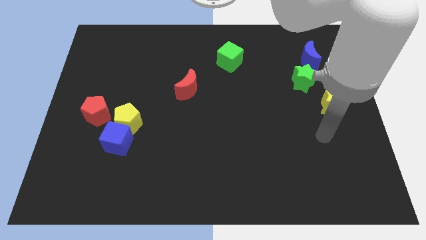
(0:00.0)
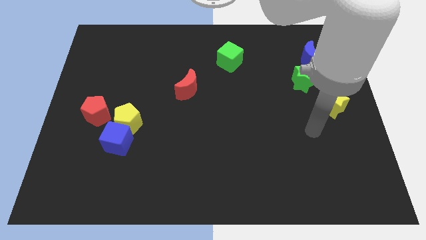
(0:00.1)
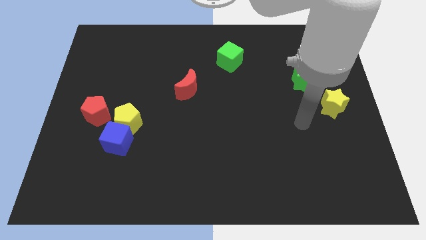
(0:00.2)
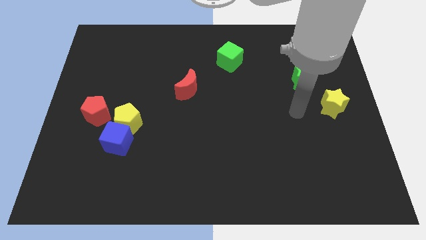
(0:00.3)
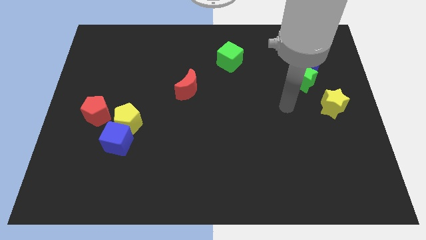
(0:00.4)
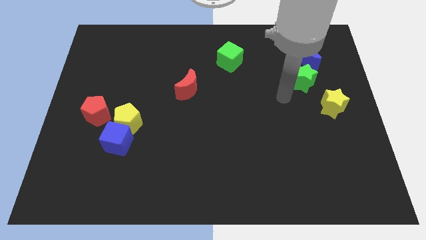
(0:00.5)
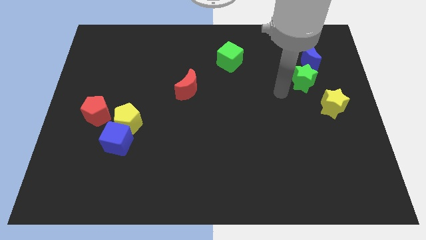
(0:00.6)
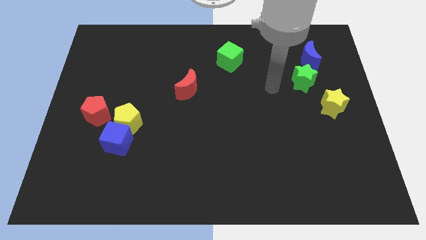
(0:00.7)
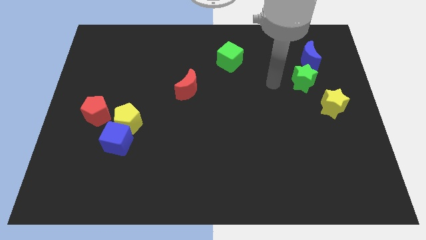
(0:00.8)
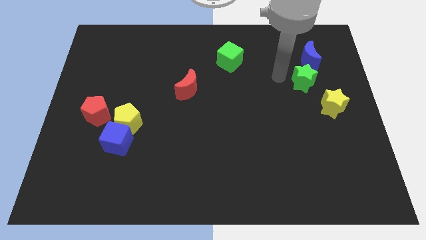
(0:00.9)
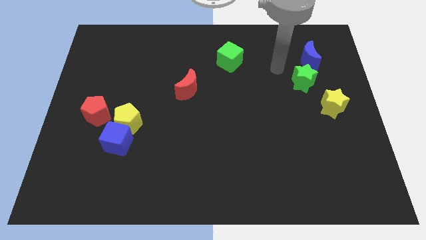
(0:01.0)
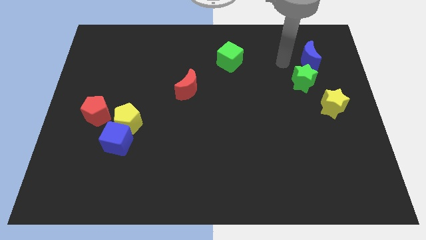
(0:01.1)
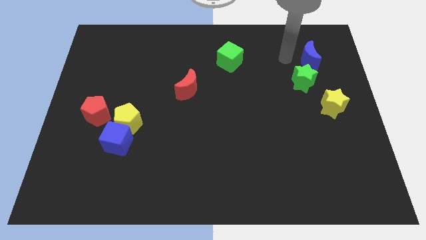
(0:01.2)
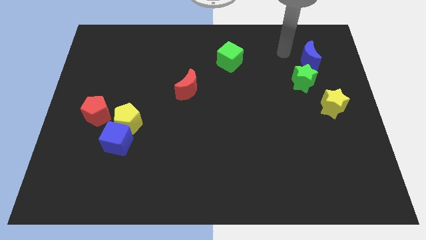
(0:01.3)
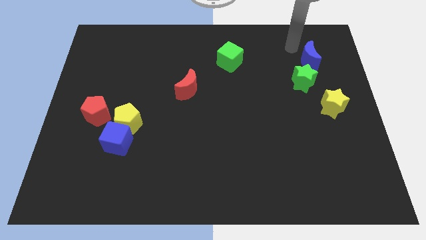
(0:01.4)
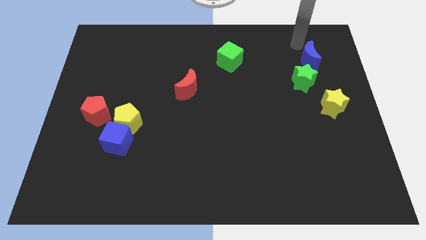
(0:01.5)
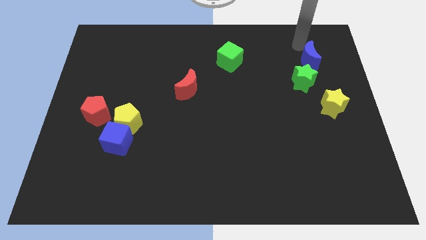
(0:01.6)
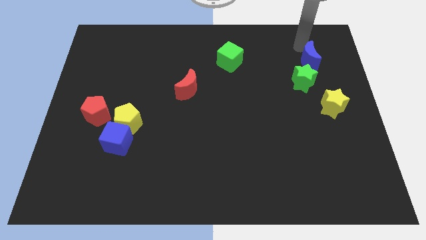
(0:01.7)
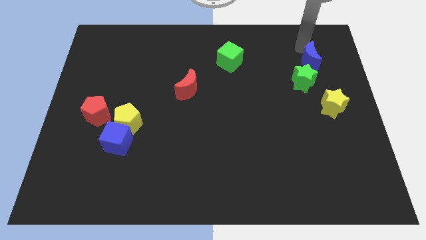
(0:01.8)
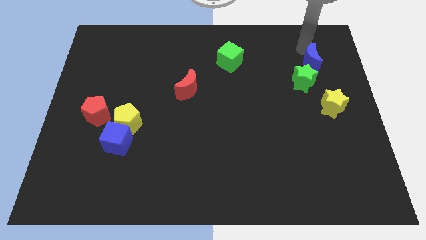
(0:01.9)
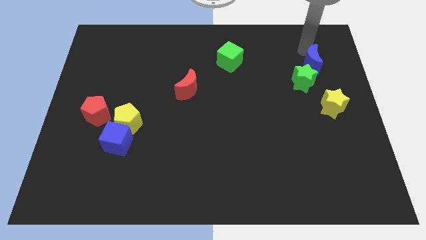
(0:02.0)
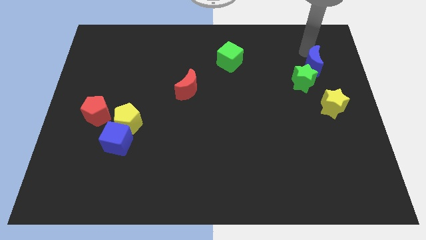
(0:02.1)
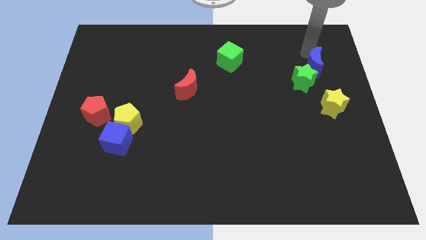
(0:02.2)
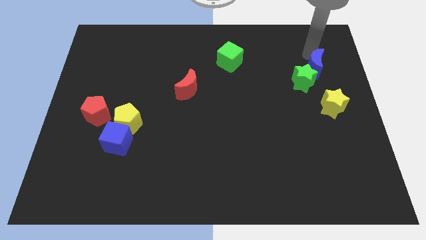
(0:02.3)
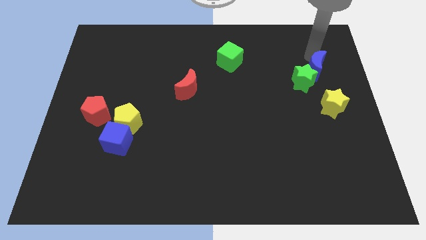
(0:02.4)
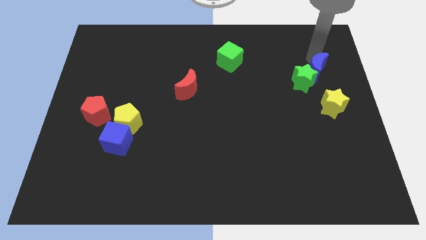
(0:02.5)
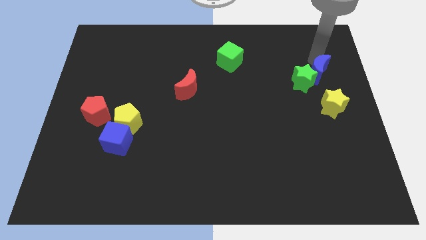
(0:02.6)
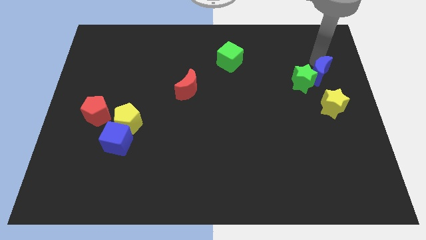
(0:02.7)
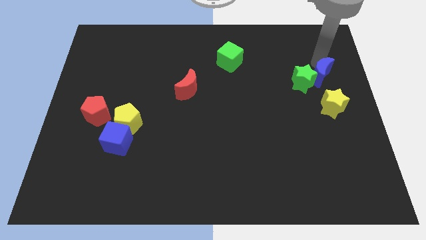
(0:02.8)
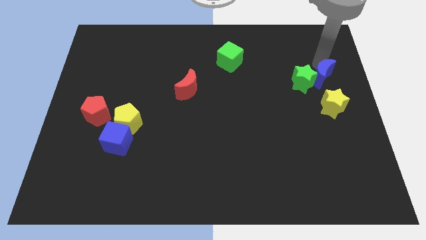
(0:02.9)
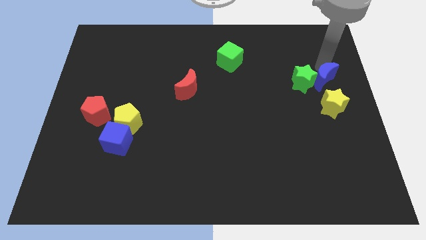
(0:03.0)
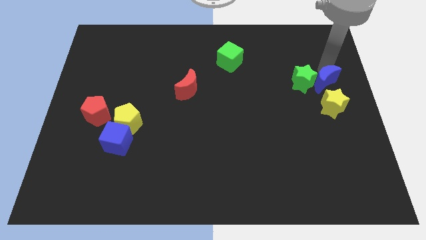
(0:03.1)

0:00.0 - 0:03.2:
move the blue moon downwards slightly

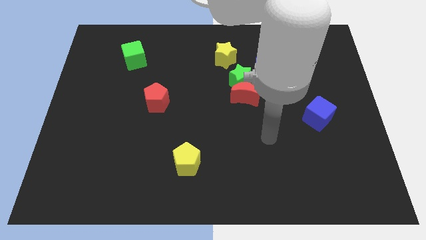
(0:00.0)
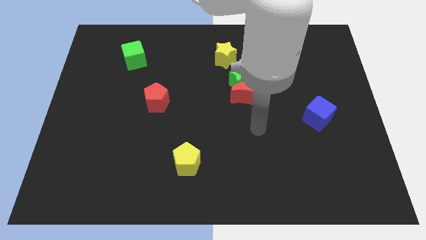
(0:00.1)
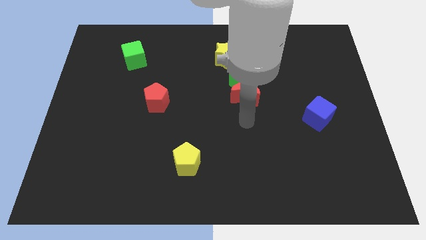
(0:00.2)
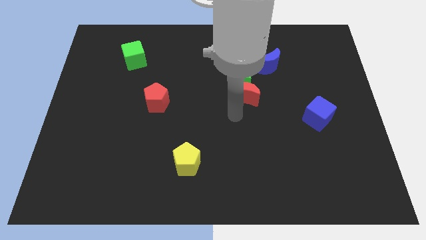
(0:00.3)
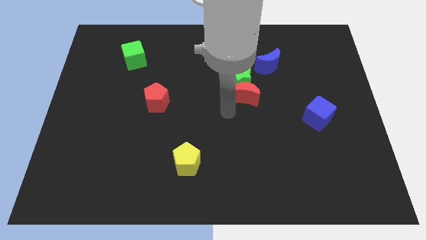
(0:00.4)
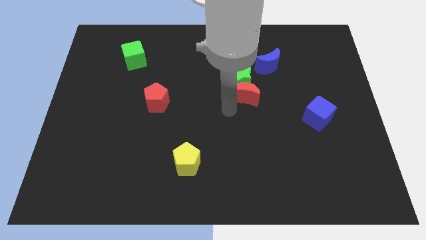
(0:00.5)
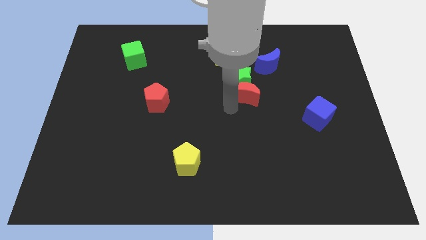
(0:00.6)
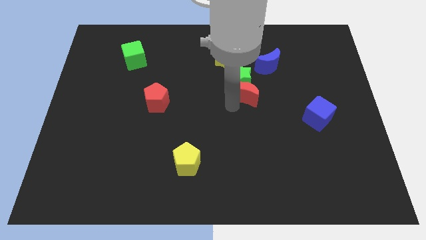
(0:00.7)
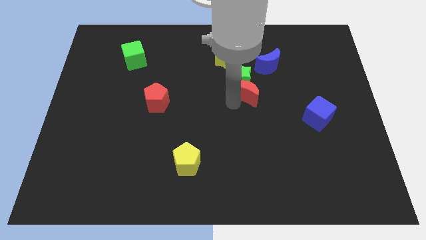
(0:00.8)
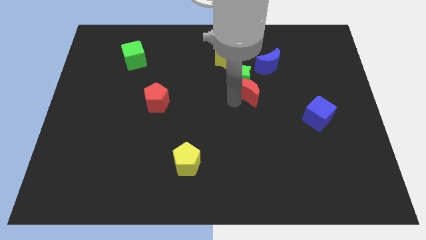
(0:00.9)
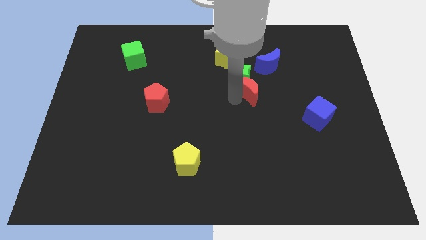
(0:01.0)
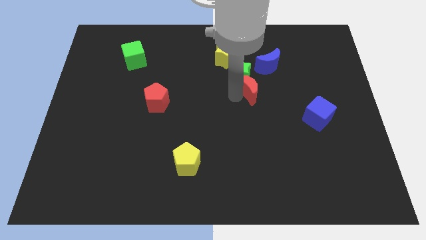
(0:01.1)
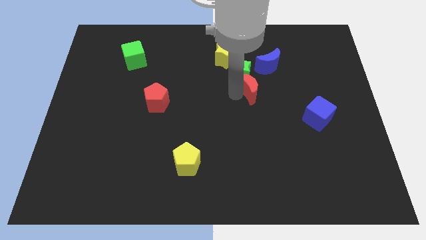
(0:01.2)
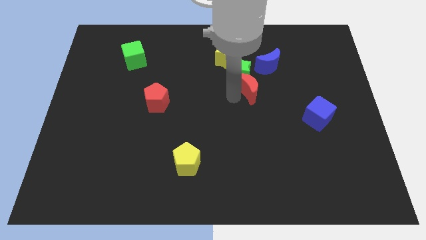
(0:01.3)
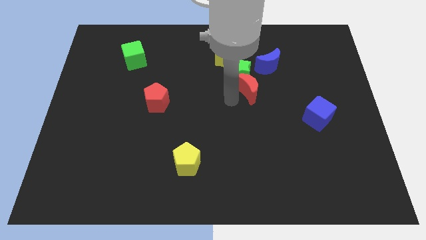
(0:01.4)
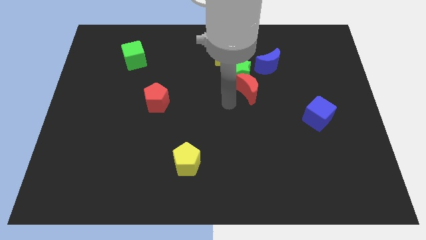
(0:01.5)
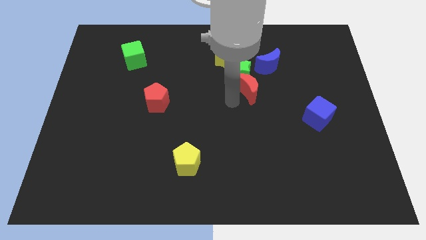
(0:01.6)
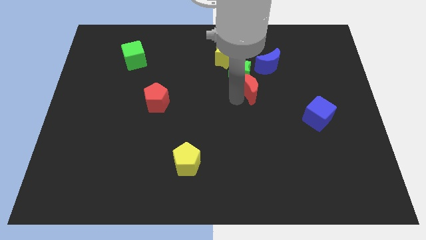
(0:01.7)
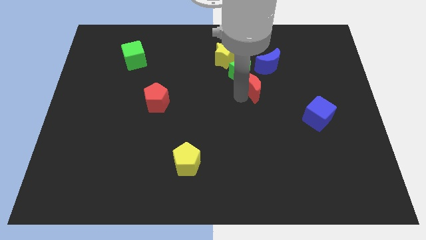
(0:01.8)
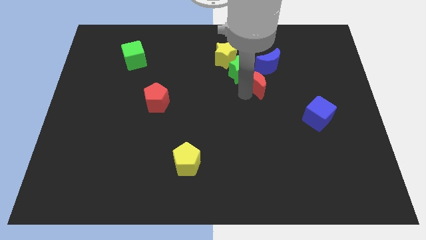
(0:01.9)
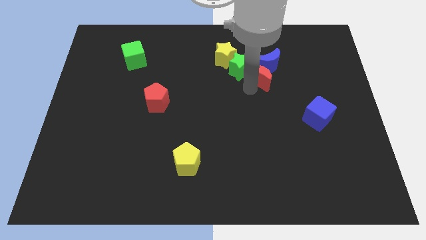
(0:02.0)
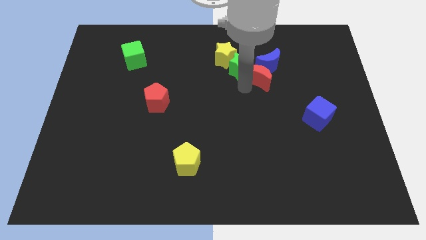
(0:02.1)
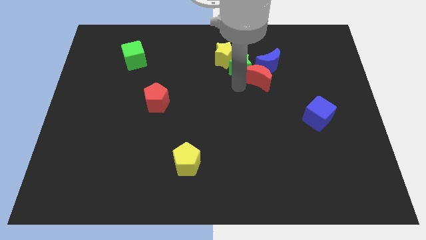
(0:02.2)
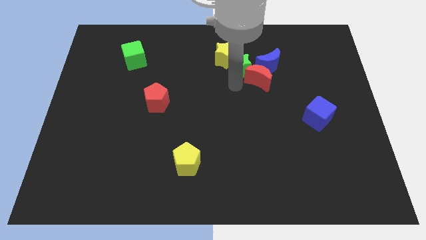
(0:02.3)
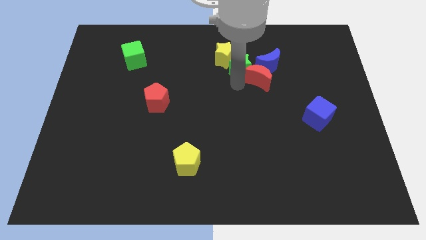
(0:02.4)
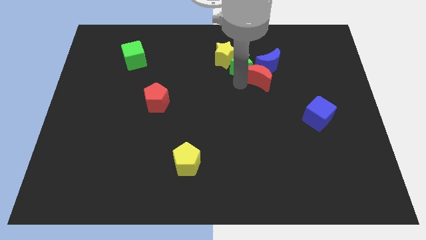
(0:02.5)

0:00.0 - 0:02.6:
slightly push the red moon upwards and right diagonally

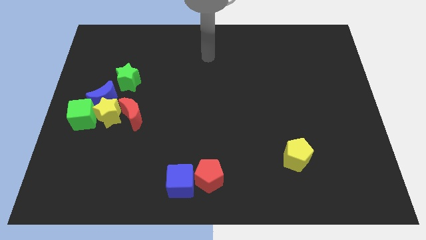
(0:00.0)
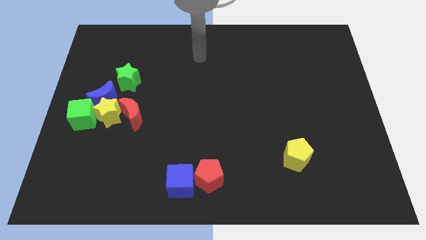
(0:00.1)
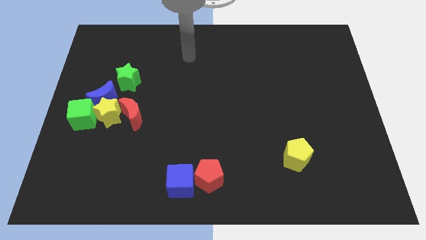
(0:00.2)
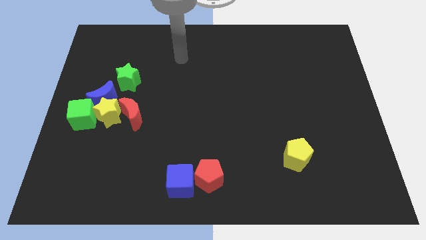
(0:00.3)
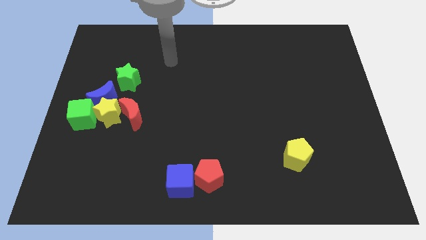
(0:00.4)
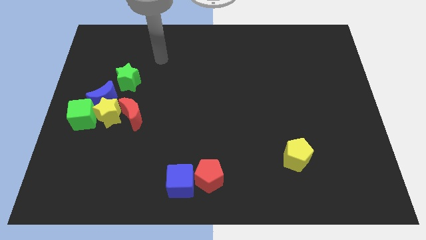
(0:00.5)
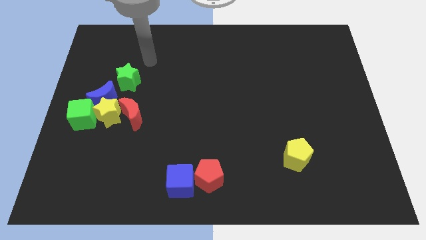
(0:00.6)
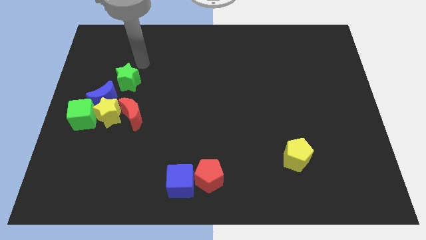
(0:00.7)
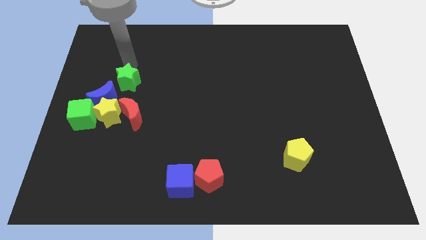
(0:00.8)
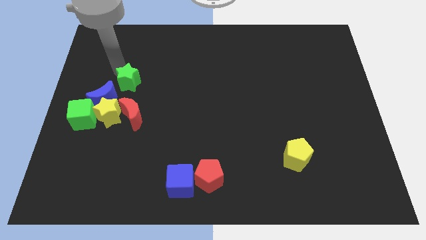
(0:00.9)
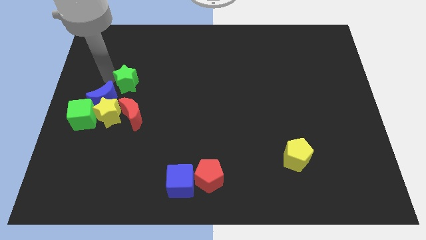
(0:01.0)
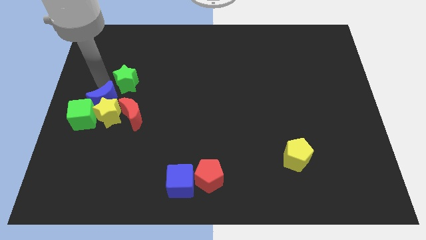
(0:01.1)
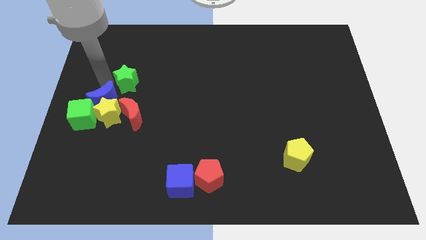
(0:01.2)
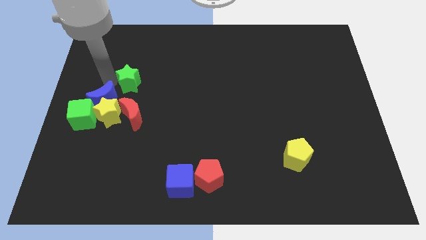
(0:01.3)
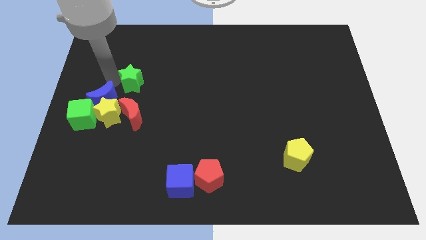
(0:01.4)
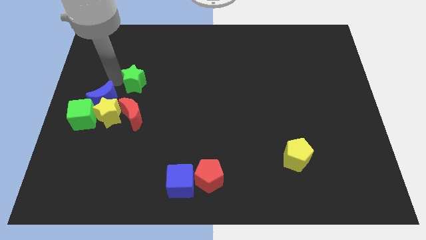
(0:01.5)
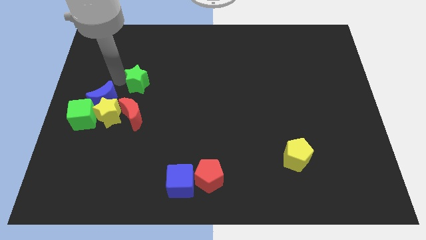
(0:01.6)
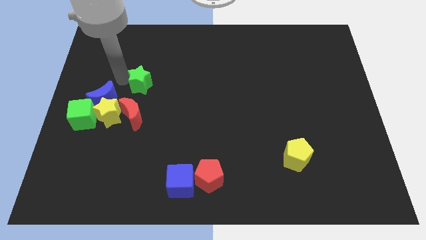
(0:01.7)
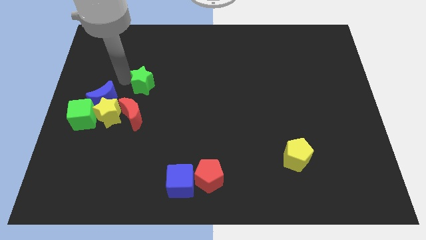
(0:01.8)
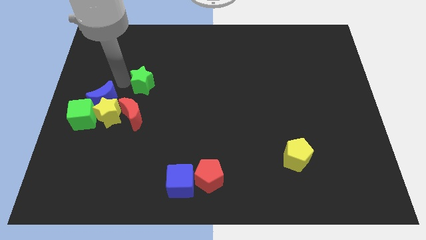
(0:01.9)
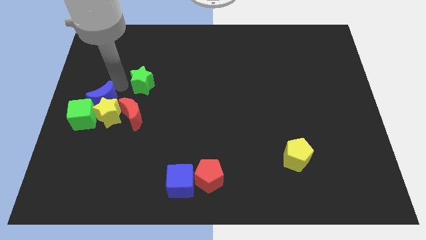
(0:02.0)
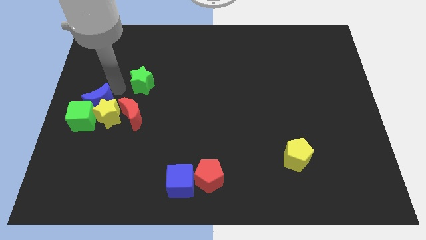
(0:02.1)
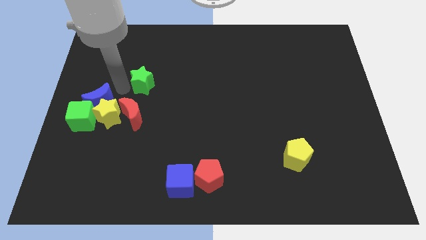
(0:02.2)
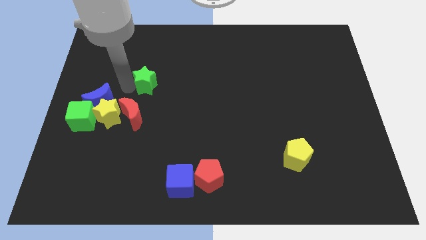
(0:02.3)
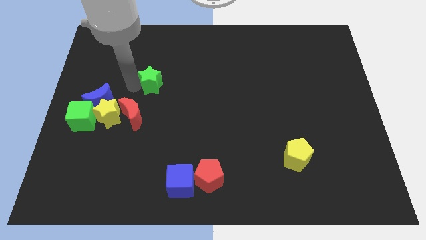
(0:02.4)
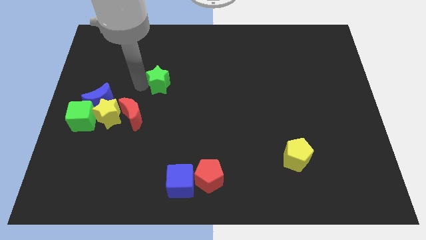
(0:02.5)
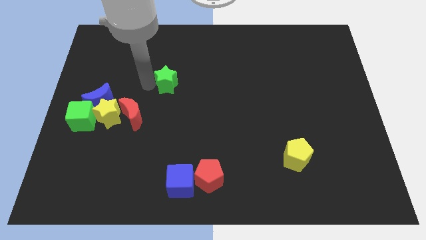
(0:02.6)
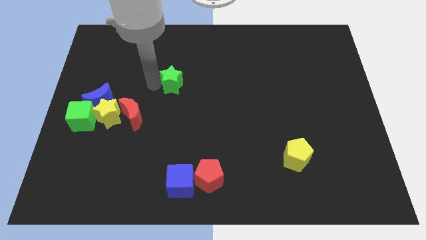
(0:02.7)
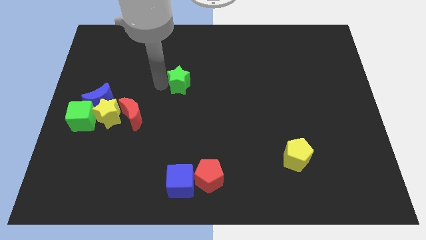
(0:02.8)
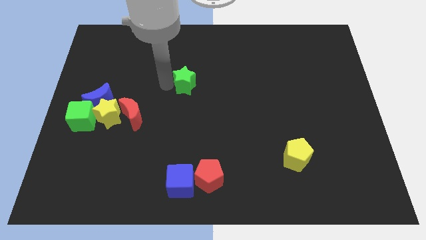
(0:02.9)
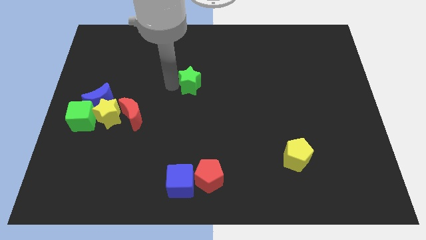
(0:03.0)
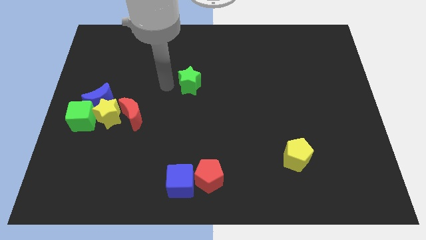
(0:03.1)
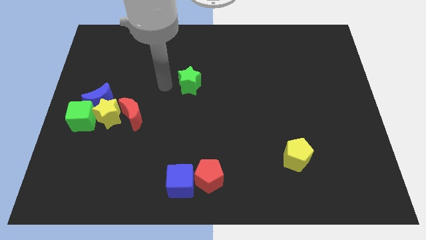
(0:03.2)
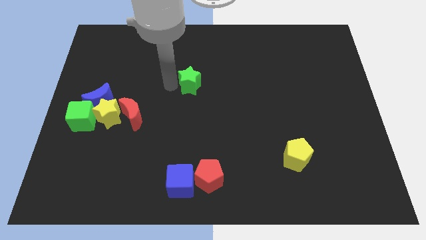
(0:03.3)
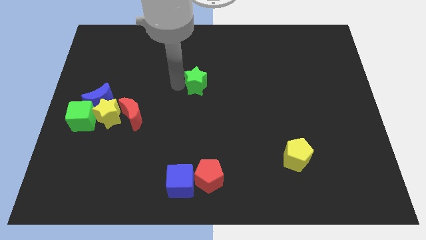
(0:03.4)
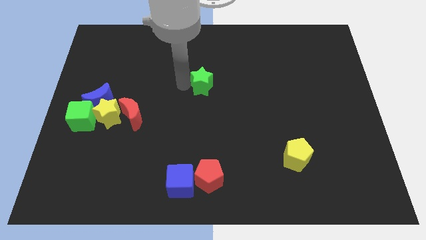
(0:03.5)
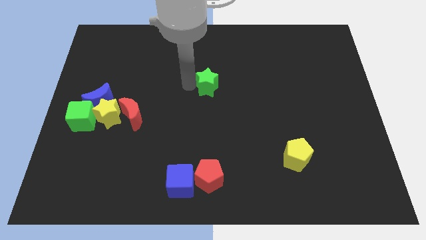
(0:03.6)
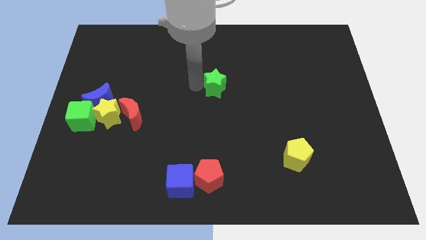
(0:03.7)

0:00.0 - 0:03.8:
push the green star to the right
